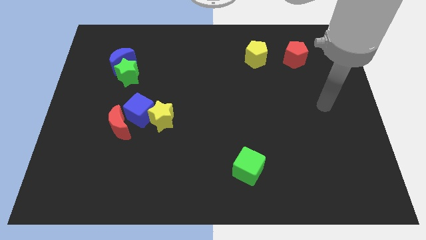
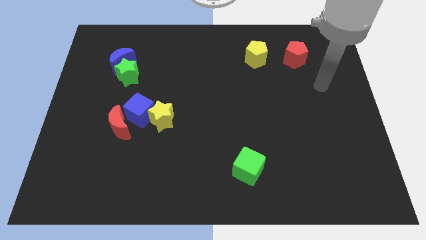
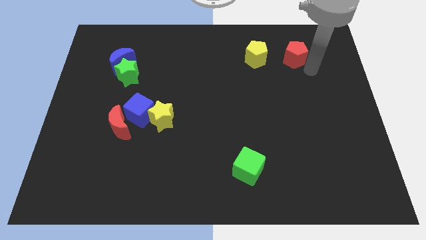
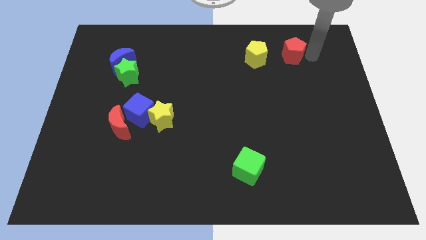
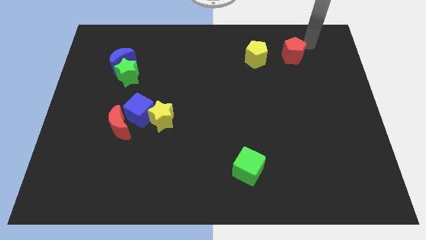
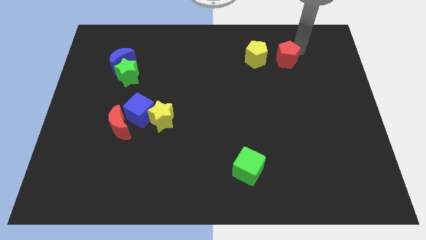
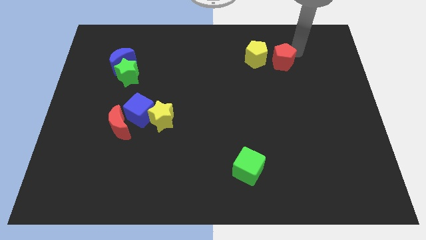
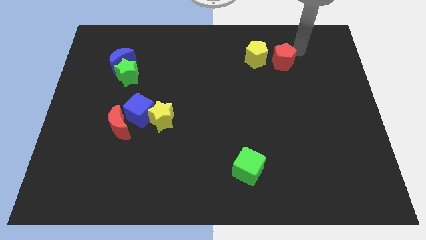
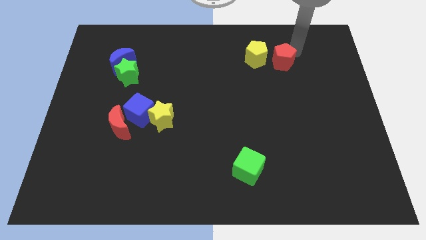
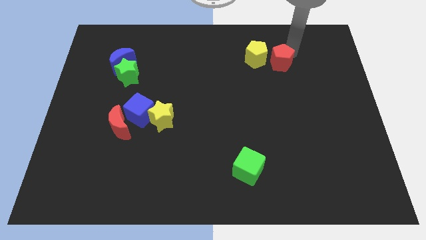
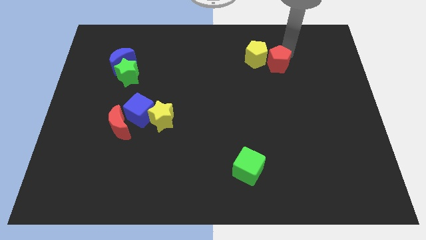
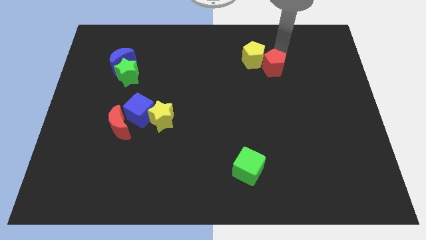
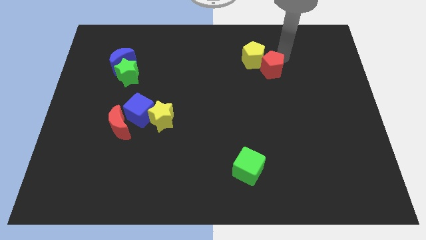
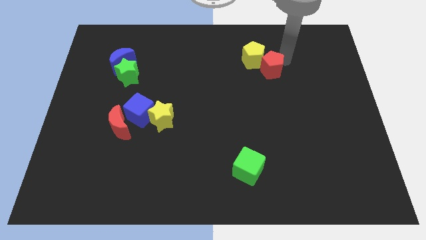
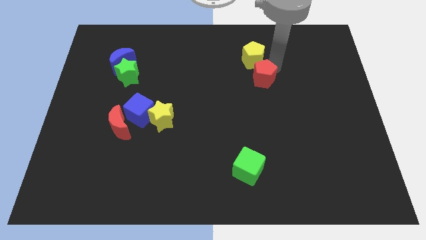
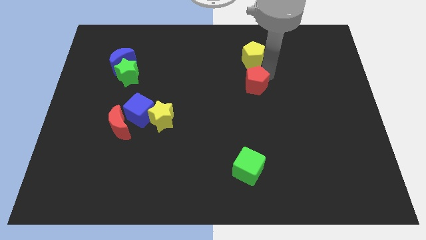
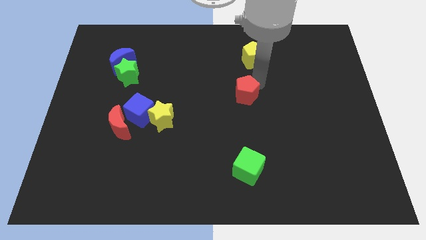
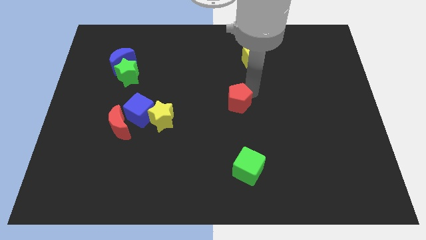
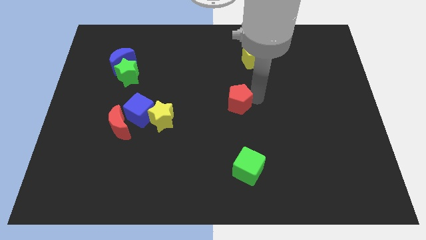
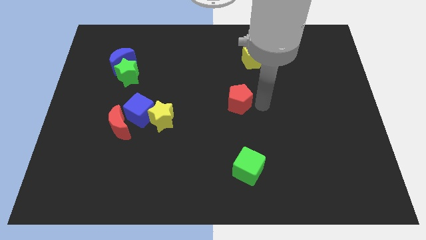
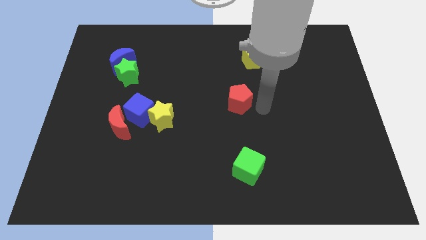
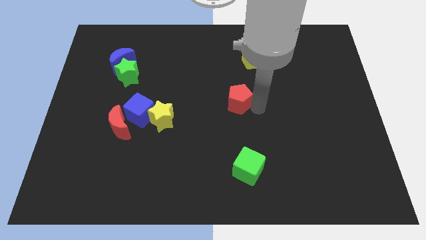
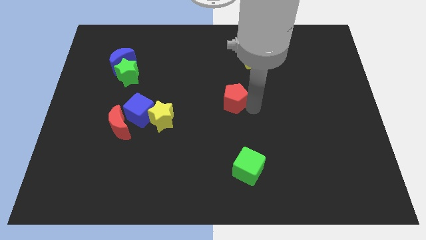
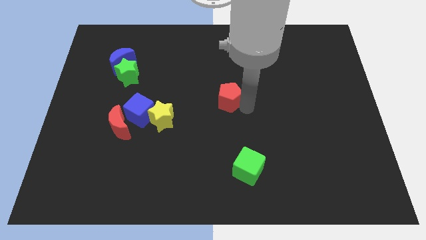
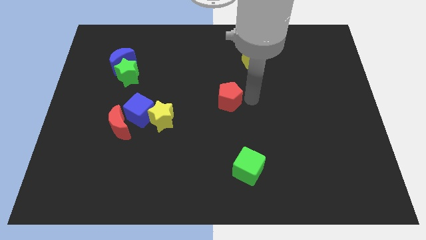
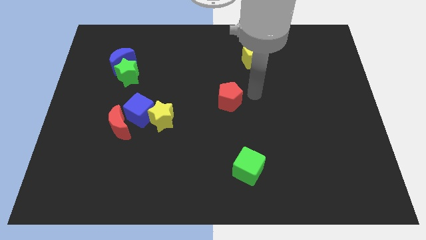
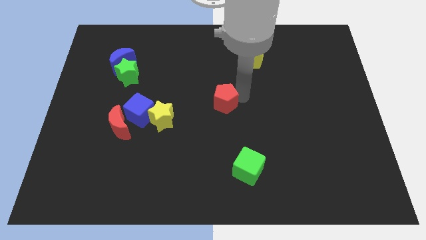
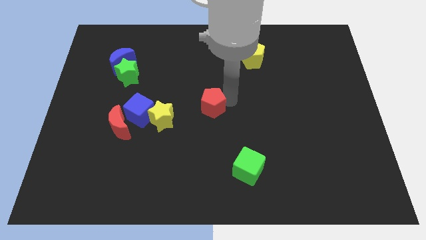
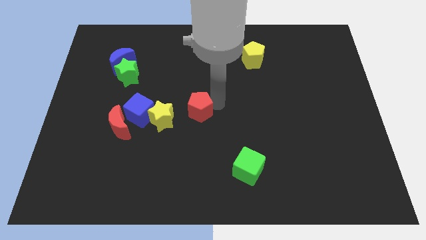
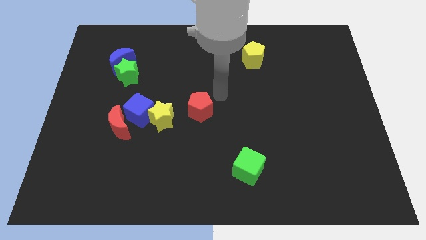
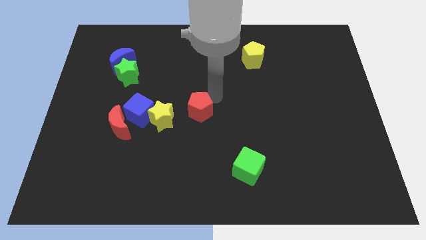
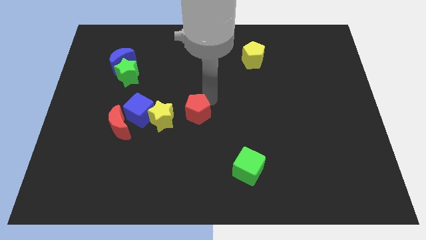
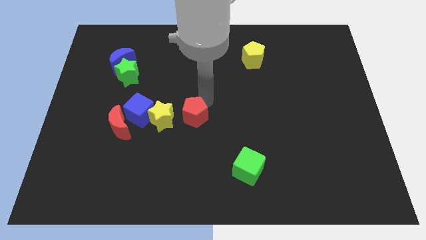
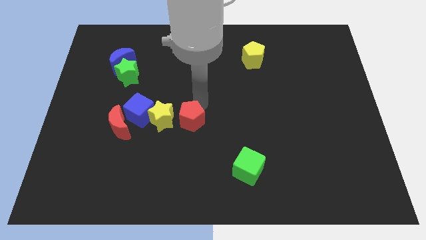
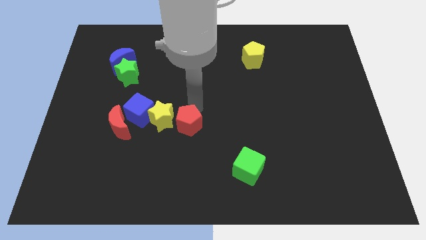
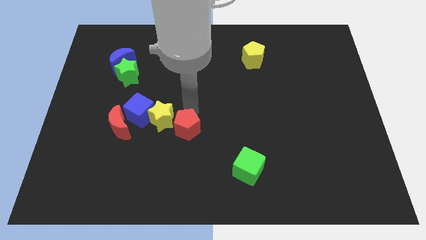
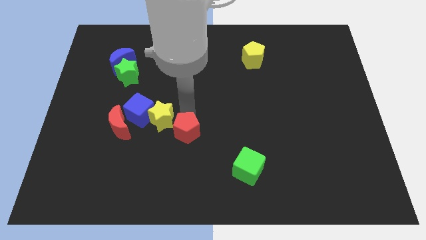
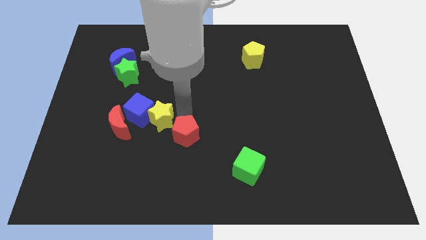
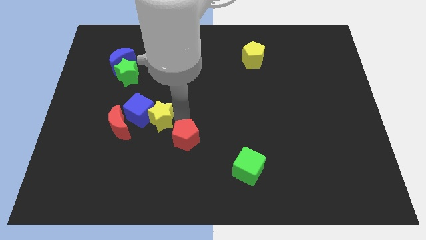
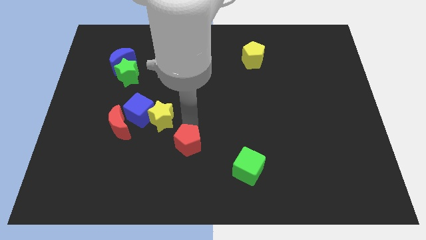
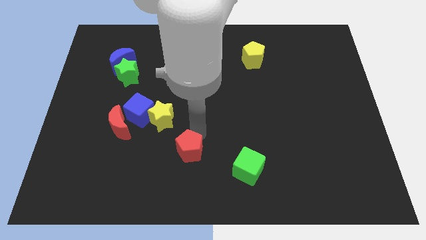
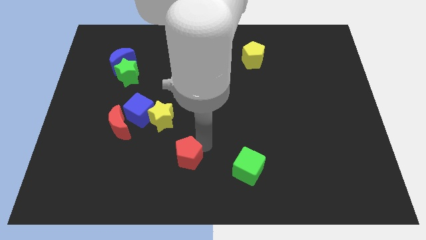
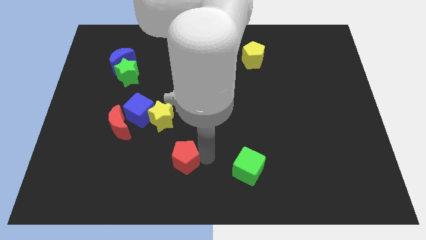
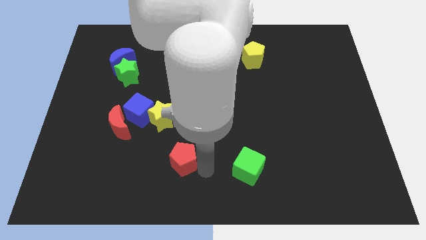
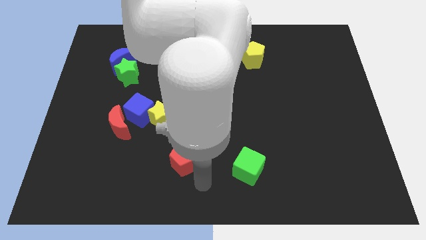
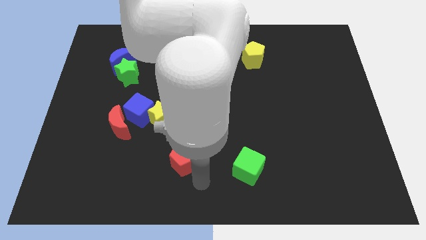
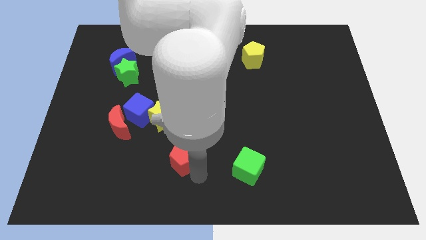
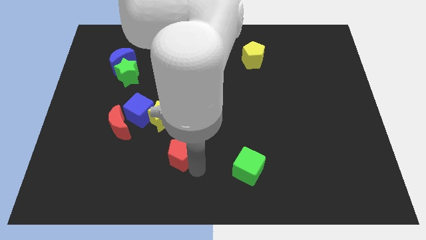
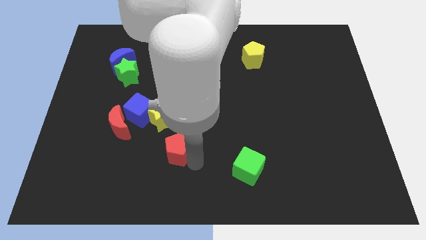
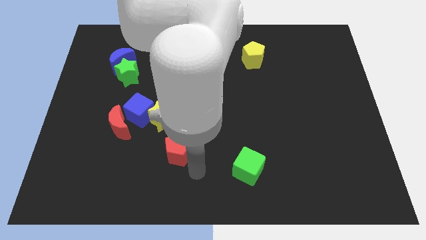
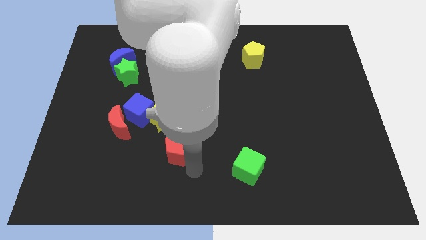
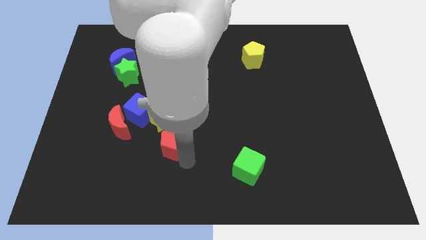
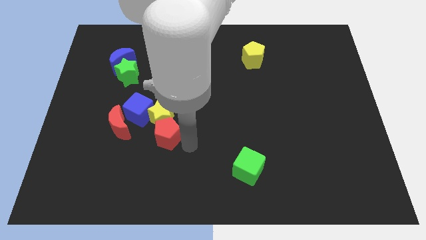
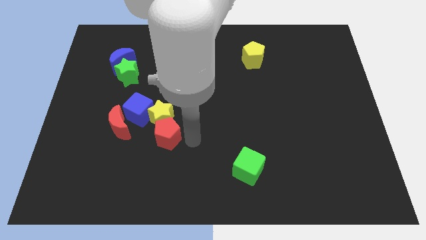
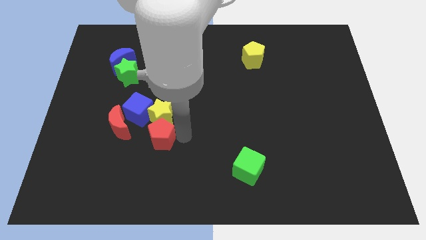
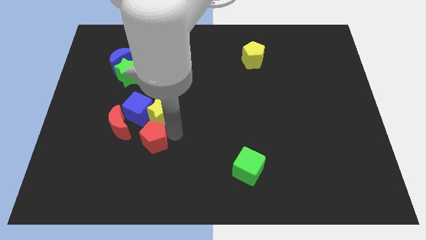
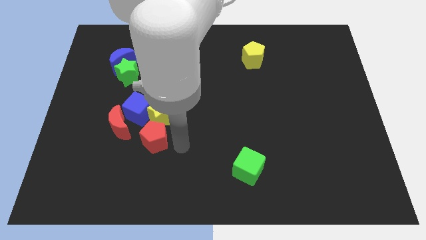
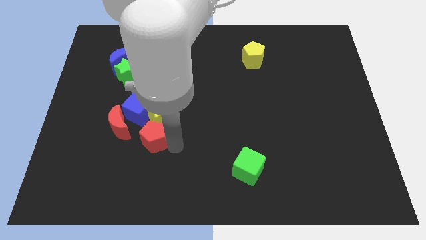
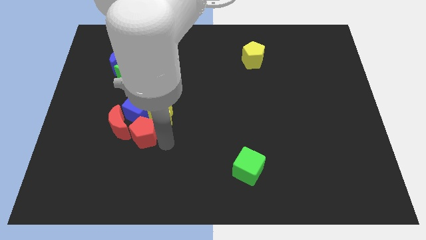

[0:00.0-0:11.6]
slide the red pentagon to the red moon

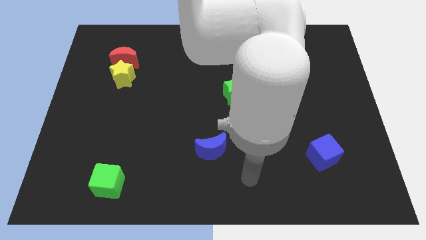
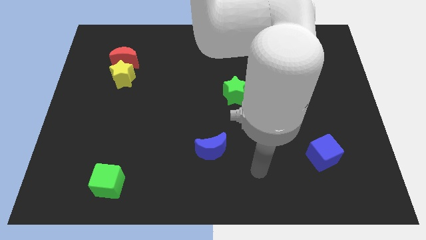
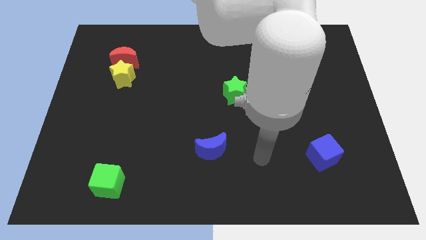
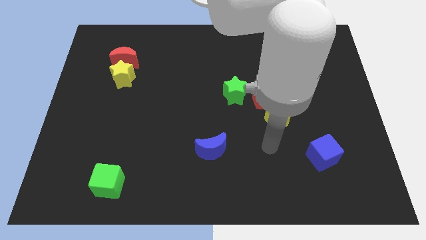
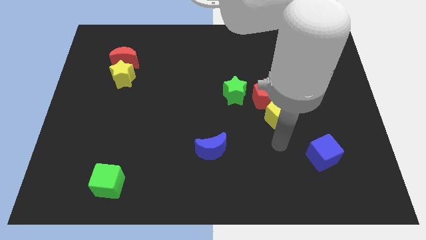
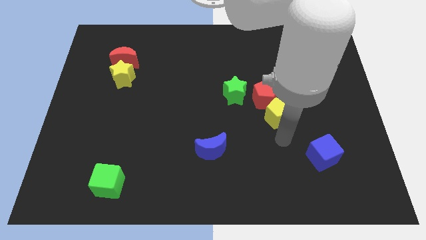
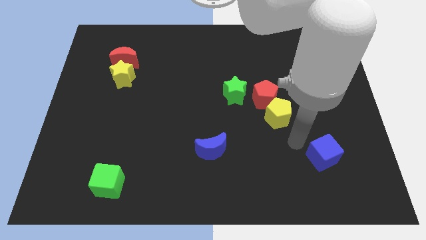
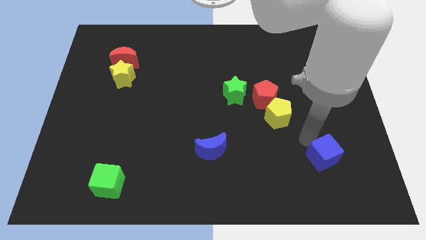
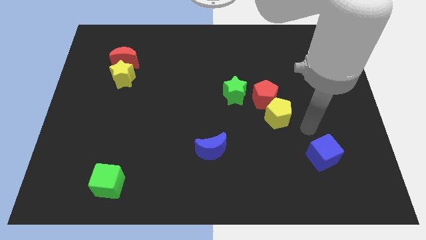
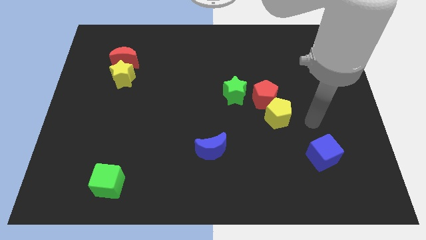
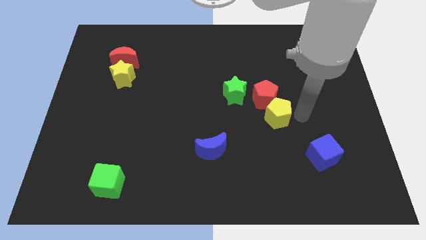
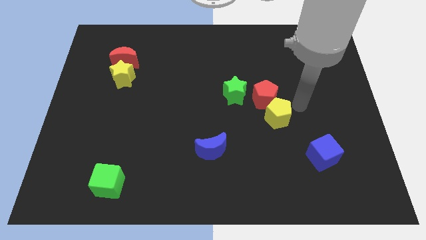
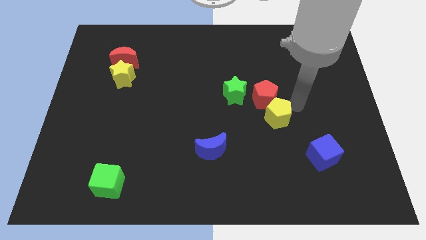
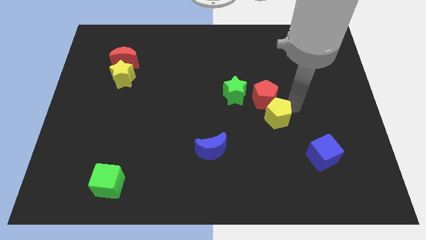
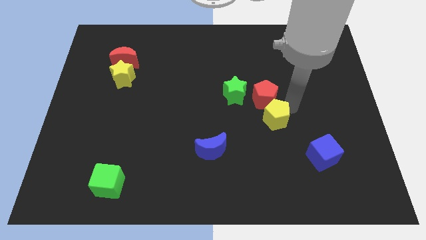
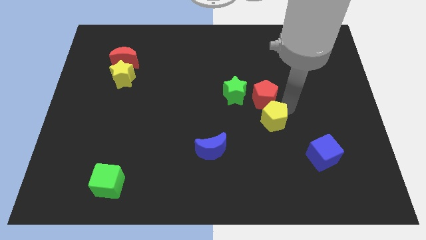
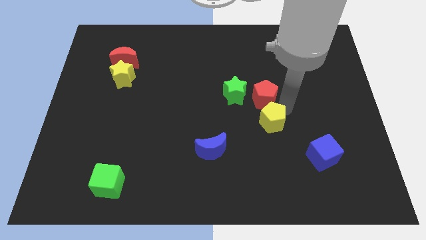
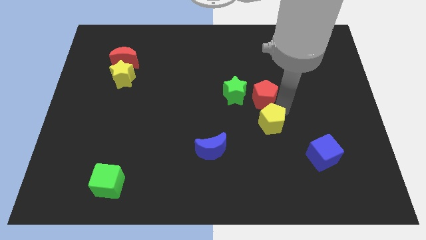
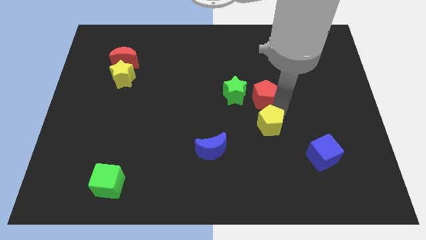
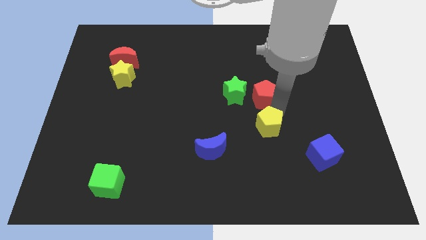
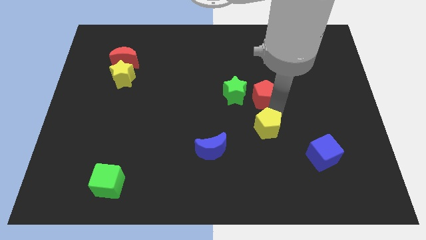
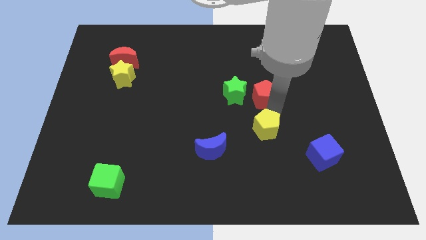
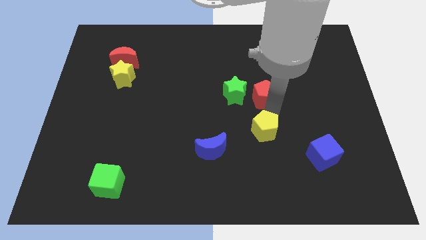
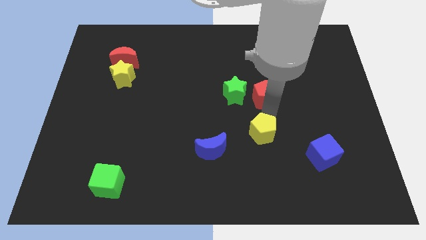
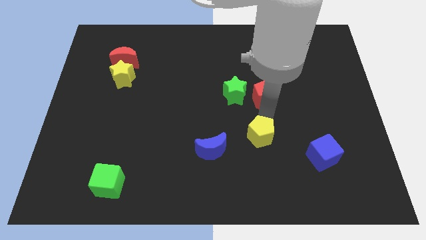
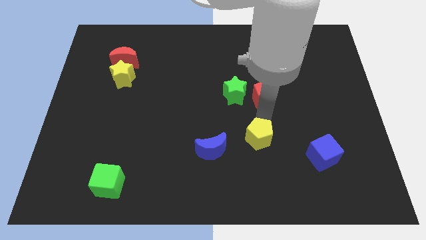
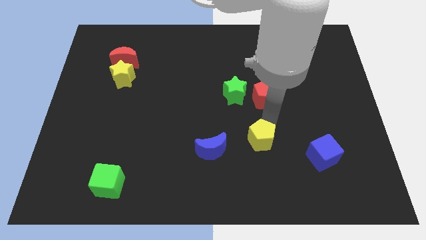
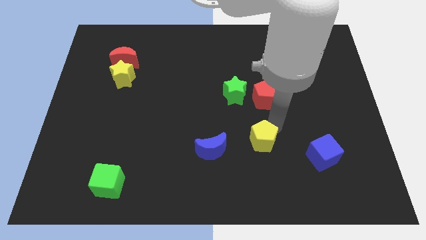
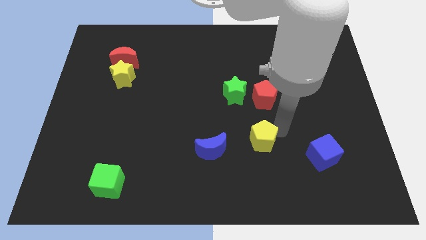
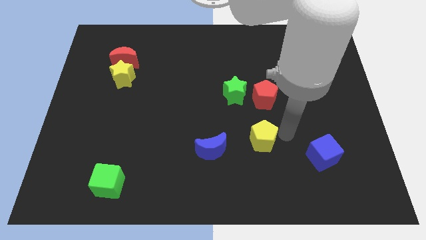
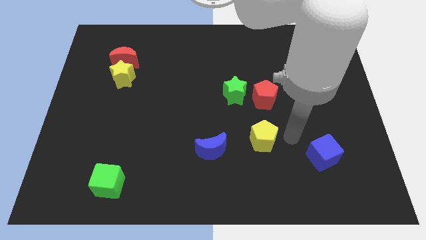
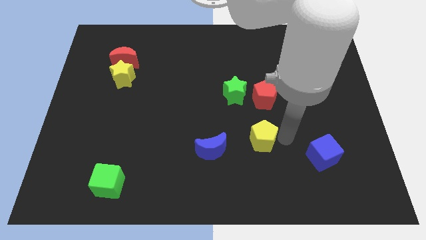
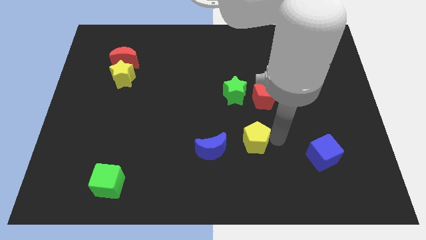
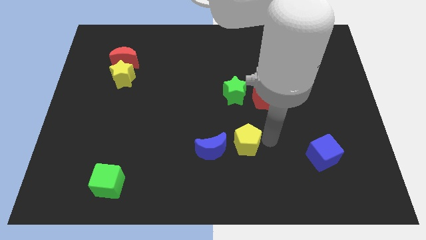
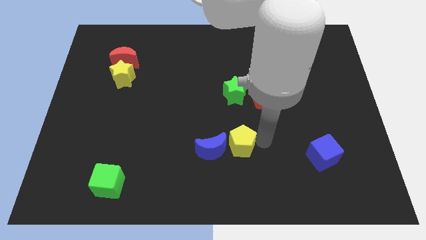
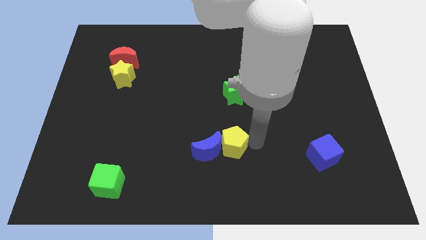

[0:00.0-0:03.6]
push the yellow pentagon next to the blue moon
